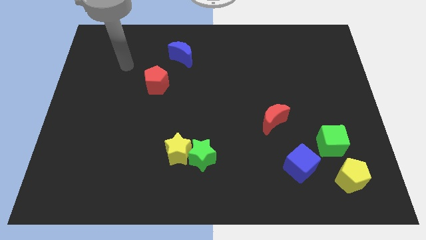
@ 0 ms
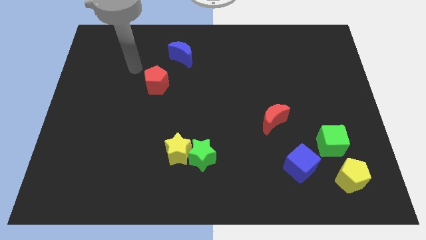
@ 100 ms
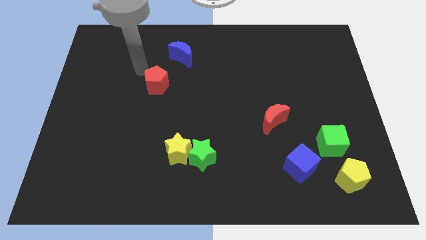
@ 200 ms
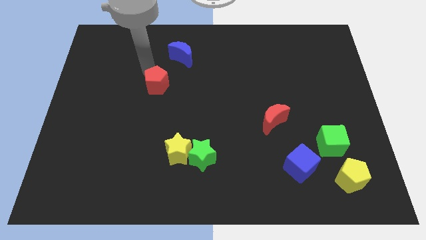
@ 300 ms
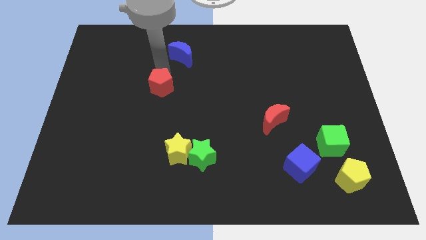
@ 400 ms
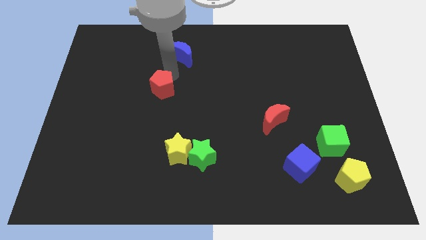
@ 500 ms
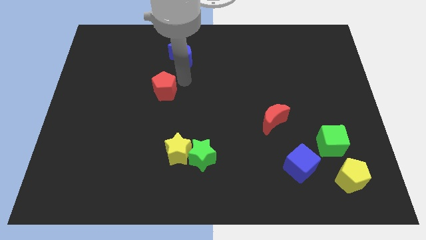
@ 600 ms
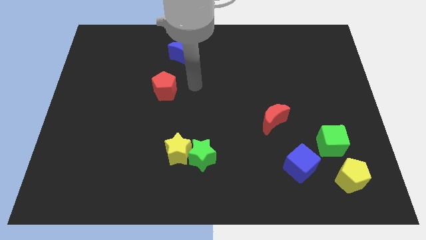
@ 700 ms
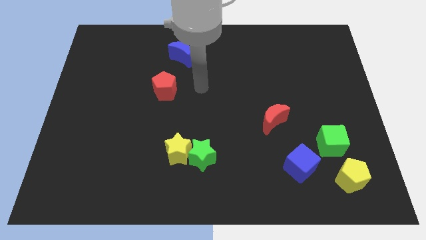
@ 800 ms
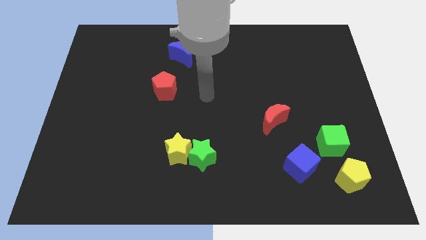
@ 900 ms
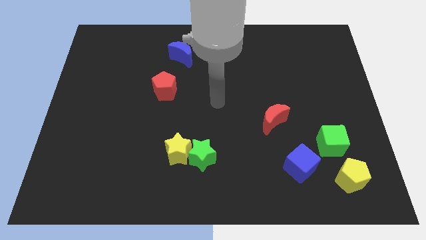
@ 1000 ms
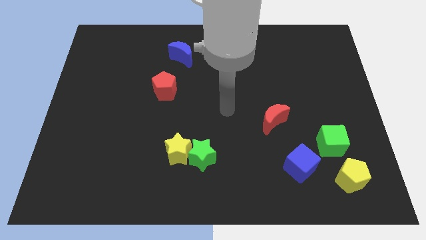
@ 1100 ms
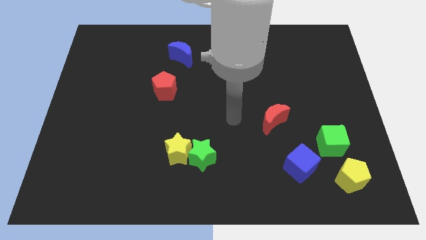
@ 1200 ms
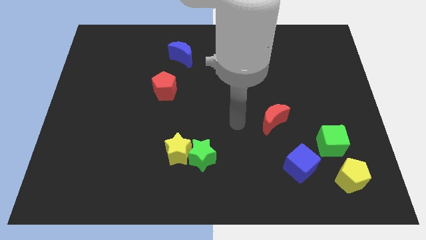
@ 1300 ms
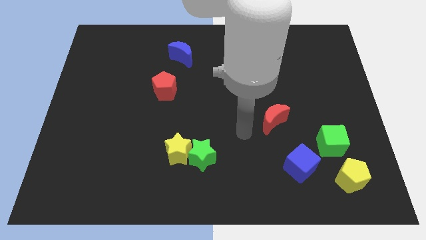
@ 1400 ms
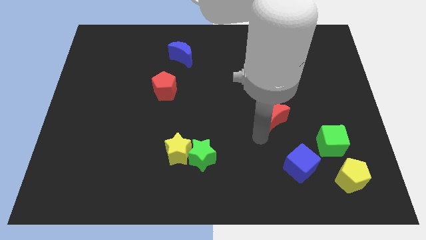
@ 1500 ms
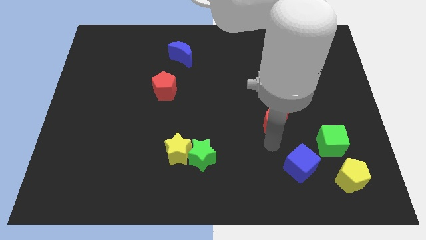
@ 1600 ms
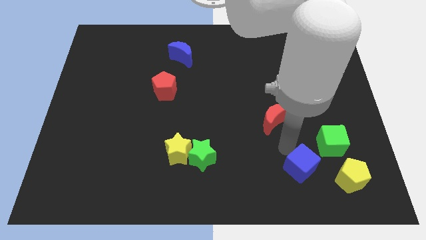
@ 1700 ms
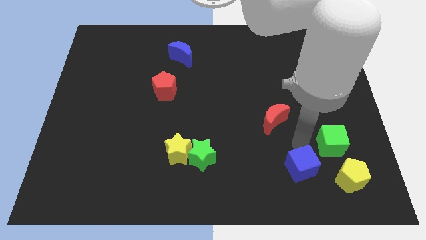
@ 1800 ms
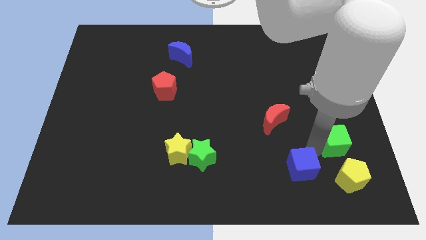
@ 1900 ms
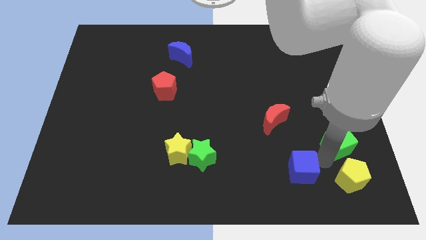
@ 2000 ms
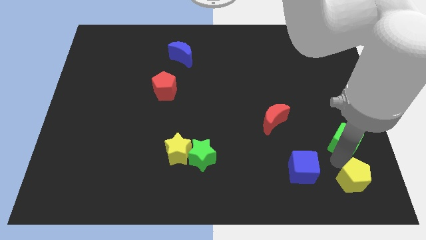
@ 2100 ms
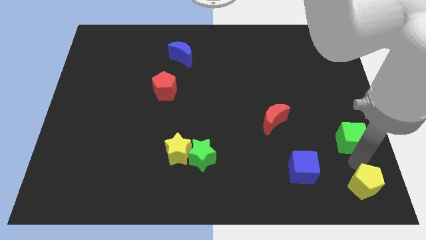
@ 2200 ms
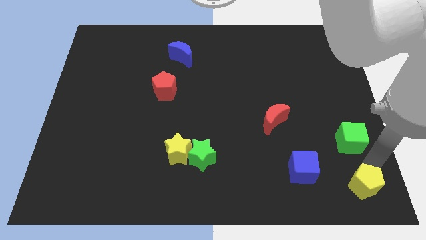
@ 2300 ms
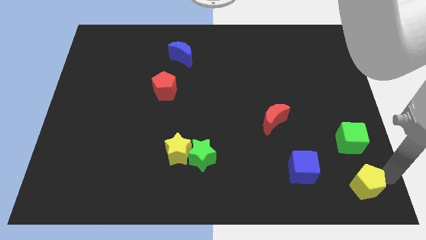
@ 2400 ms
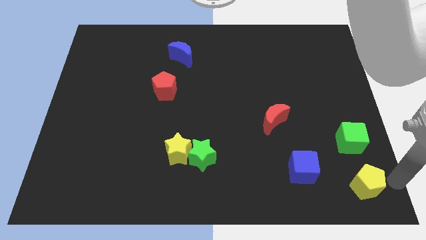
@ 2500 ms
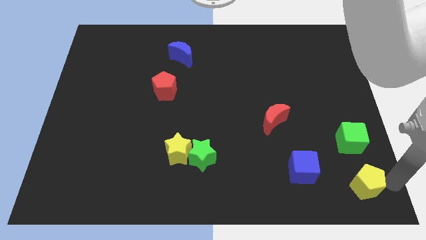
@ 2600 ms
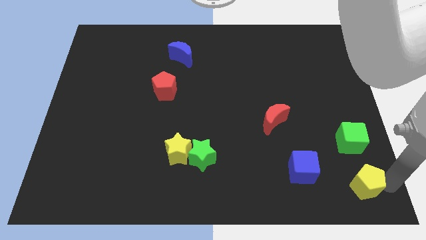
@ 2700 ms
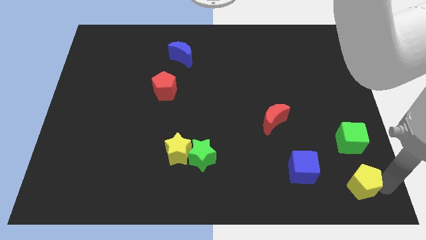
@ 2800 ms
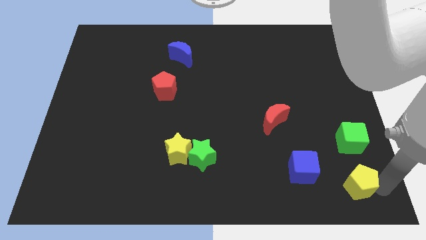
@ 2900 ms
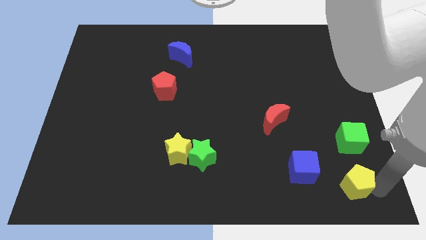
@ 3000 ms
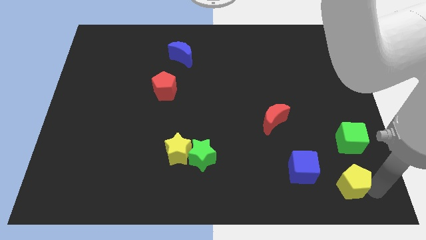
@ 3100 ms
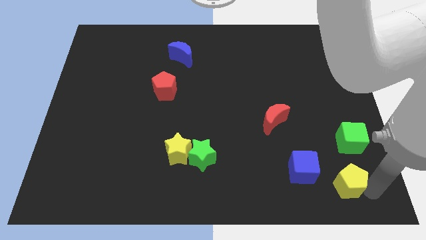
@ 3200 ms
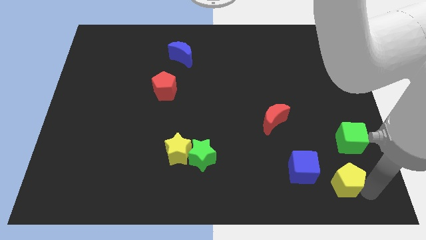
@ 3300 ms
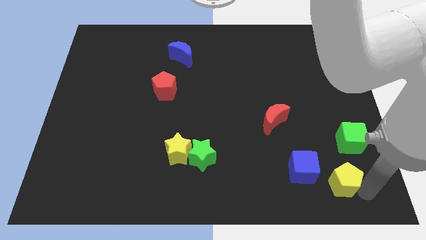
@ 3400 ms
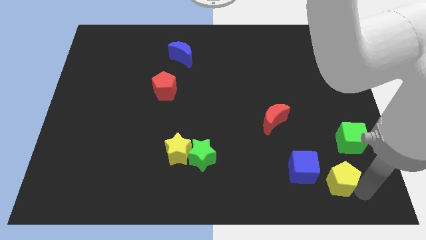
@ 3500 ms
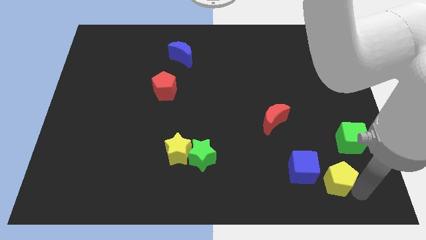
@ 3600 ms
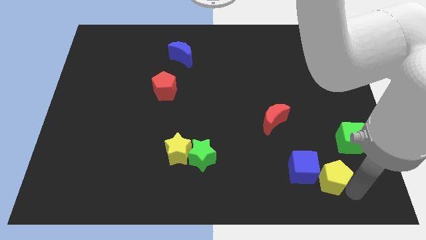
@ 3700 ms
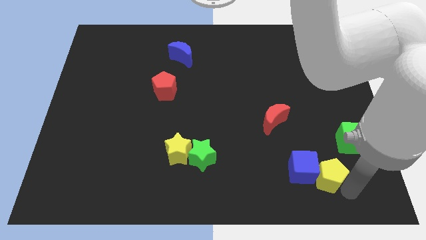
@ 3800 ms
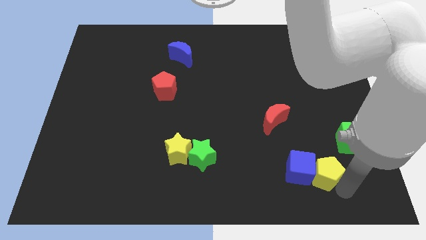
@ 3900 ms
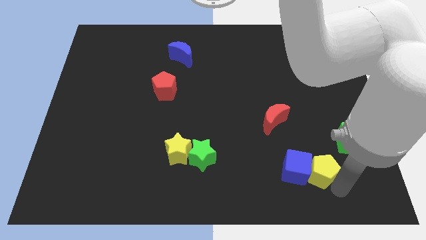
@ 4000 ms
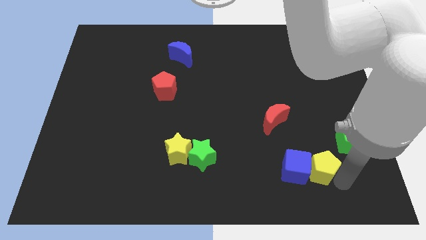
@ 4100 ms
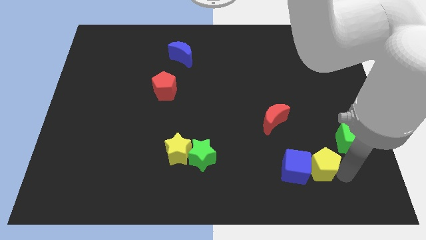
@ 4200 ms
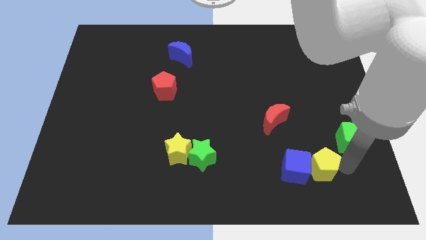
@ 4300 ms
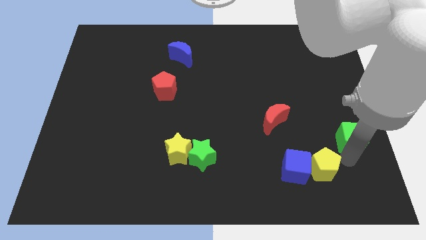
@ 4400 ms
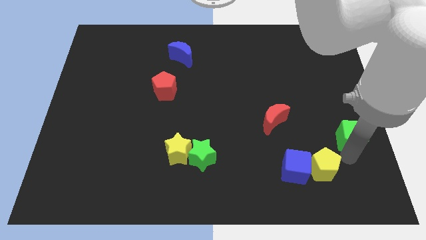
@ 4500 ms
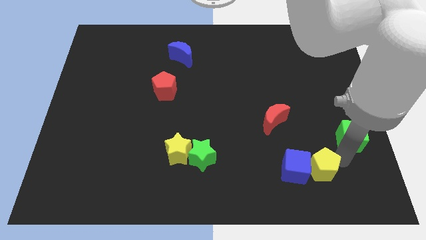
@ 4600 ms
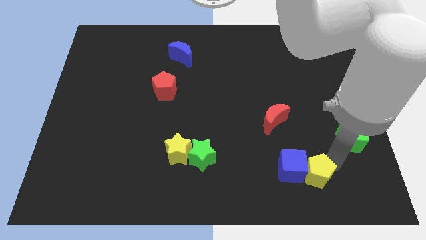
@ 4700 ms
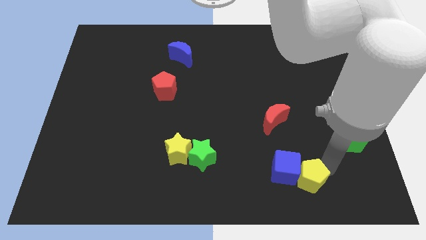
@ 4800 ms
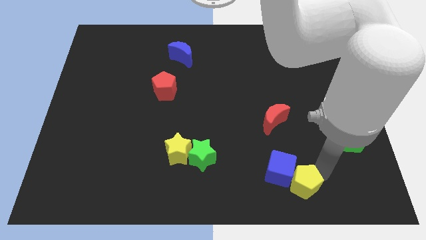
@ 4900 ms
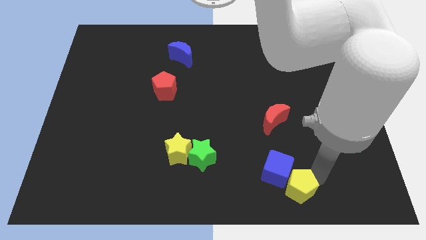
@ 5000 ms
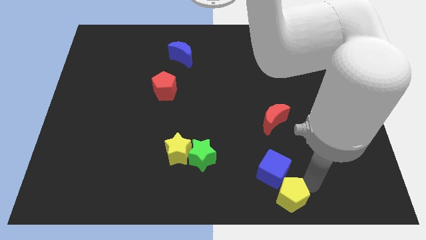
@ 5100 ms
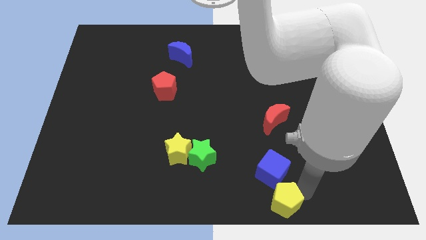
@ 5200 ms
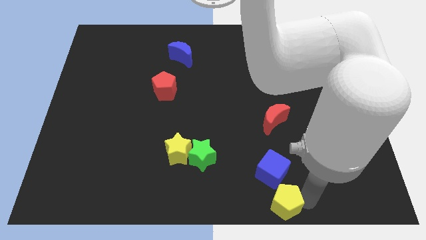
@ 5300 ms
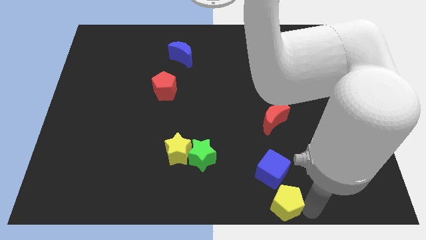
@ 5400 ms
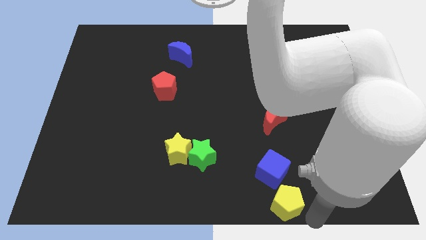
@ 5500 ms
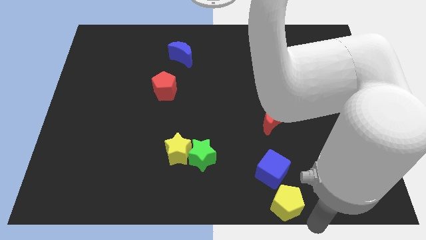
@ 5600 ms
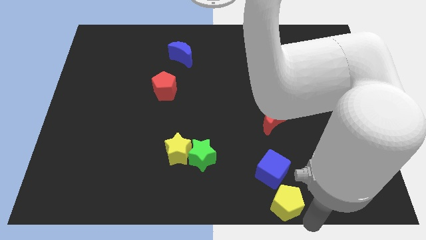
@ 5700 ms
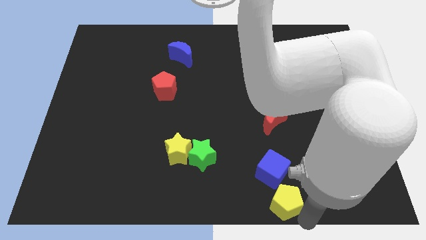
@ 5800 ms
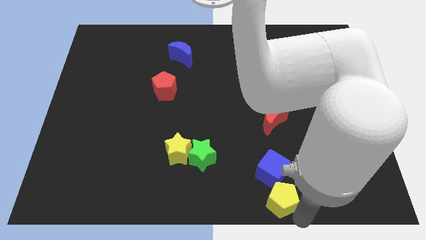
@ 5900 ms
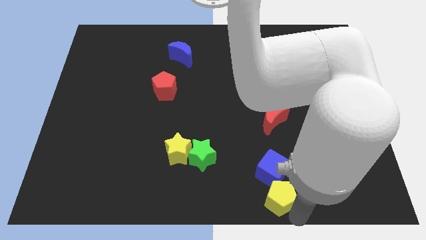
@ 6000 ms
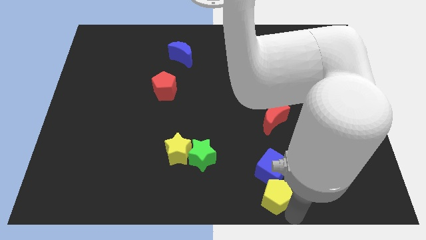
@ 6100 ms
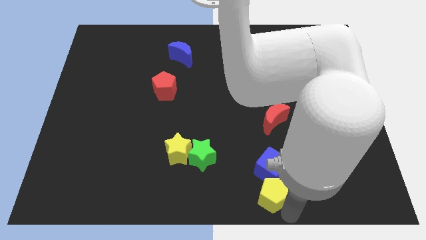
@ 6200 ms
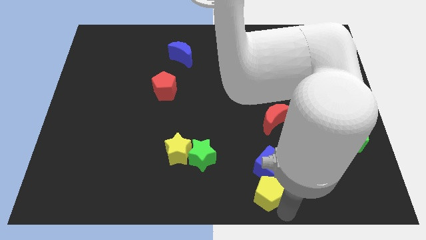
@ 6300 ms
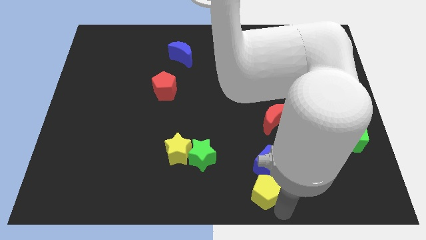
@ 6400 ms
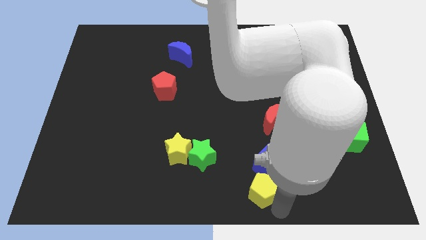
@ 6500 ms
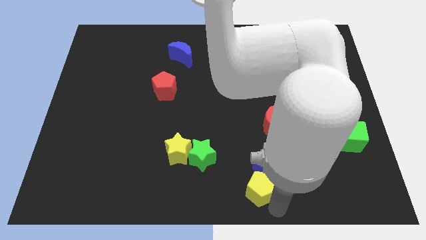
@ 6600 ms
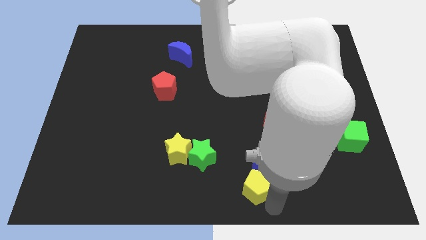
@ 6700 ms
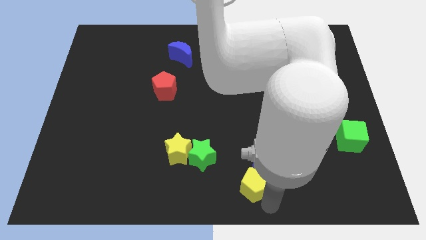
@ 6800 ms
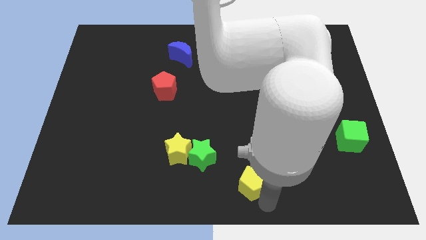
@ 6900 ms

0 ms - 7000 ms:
push the yellow pentagon to the left

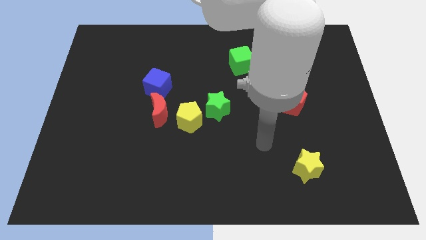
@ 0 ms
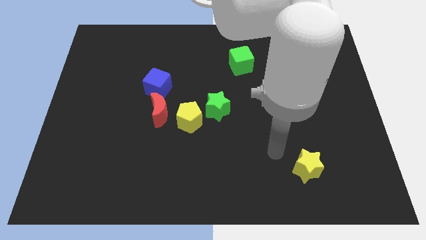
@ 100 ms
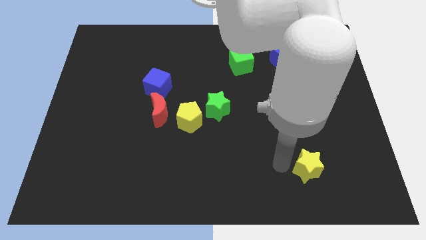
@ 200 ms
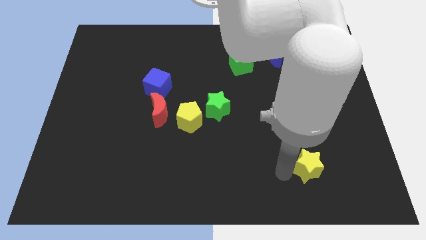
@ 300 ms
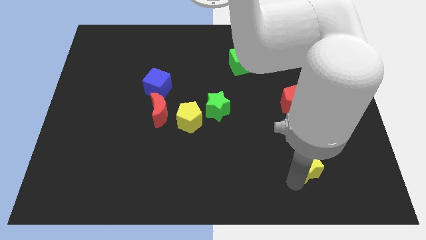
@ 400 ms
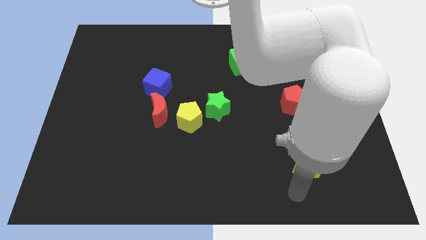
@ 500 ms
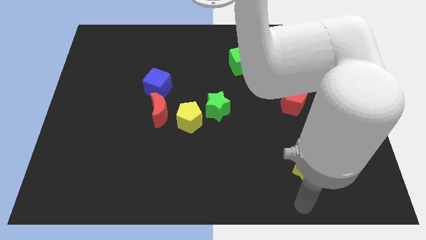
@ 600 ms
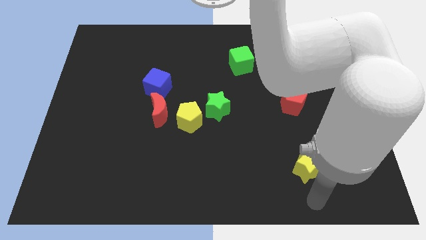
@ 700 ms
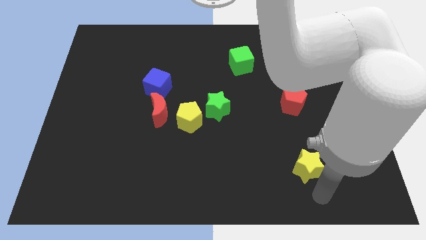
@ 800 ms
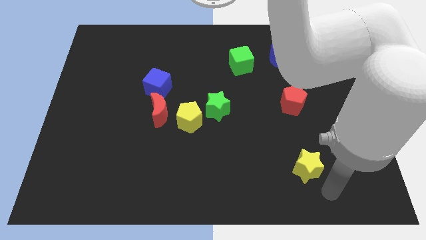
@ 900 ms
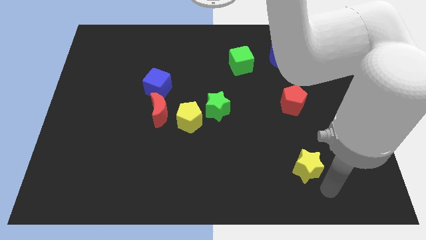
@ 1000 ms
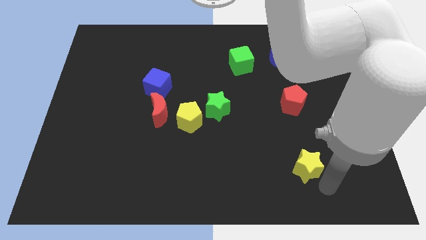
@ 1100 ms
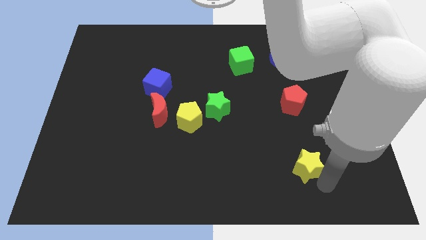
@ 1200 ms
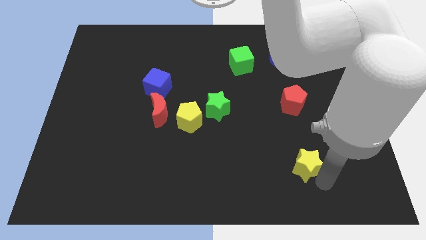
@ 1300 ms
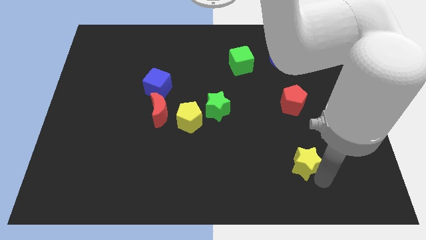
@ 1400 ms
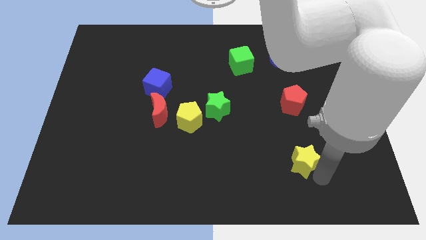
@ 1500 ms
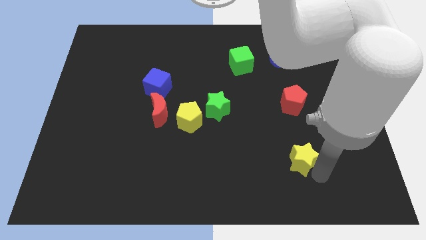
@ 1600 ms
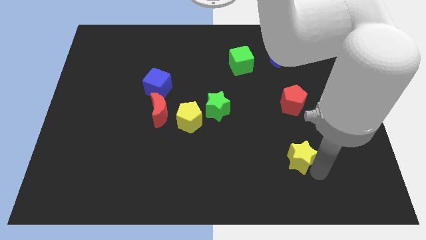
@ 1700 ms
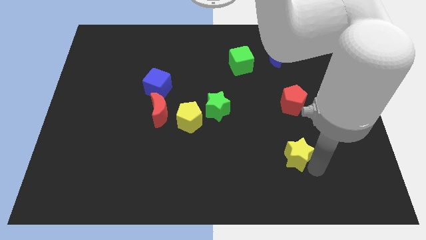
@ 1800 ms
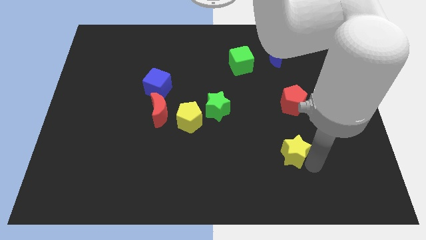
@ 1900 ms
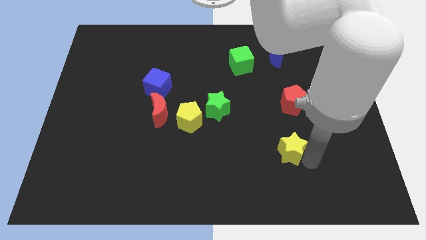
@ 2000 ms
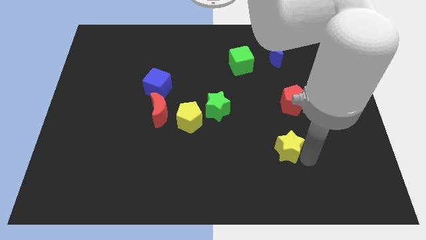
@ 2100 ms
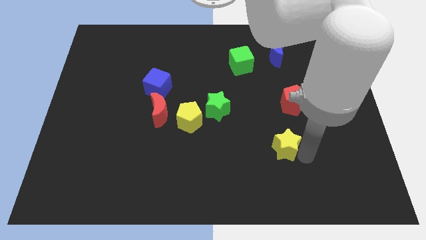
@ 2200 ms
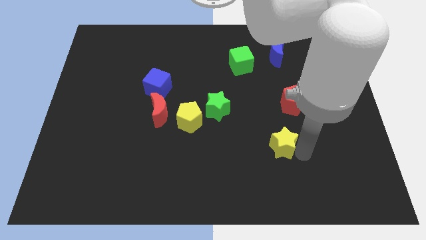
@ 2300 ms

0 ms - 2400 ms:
slightly slide the yellow star diagonally up and to the left
